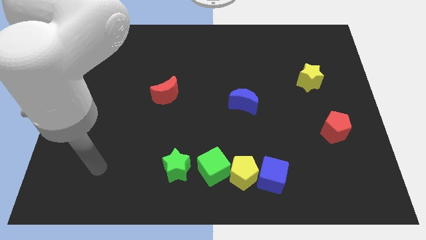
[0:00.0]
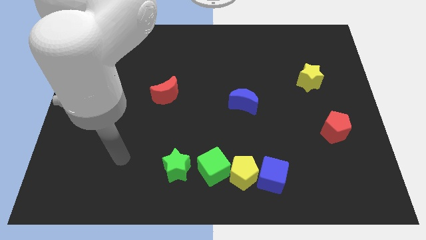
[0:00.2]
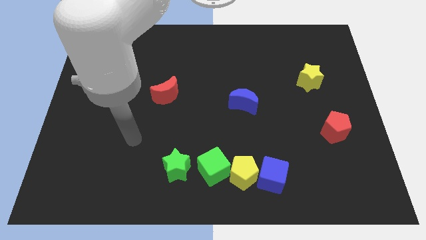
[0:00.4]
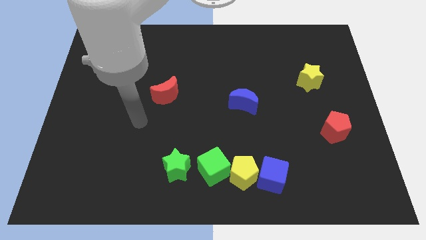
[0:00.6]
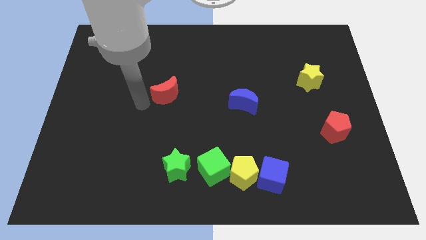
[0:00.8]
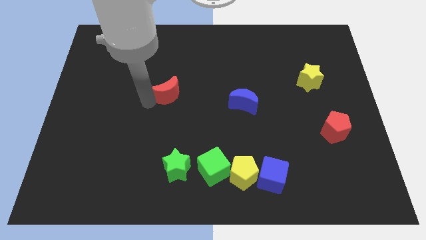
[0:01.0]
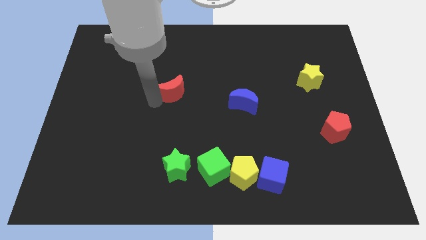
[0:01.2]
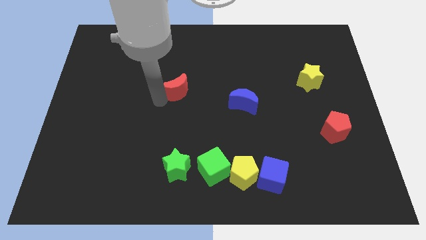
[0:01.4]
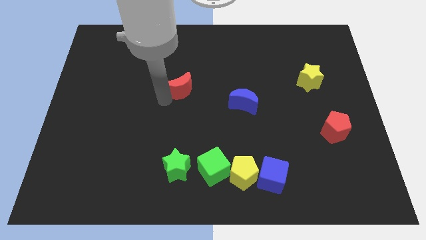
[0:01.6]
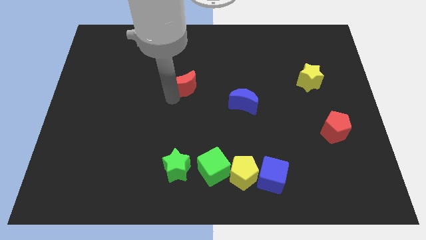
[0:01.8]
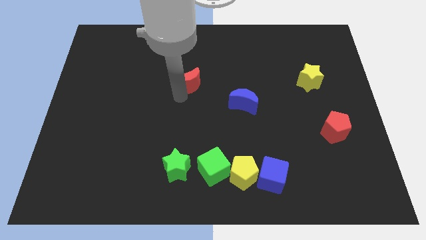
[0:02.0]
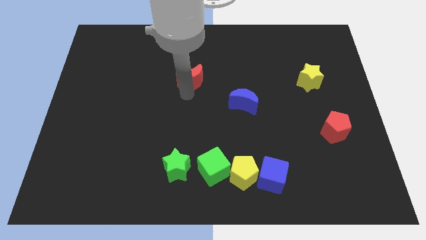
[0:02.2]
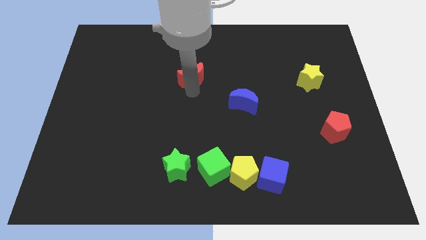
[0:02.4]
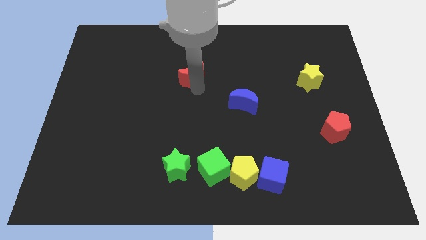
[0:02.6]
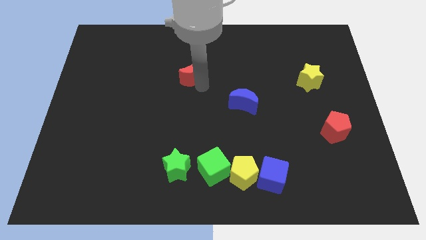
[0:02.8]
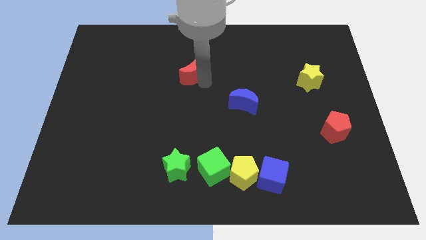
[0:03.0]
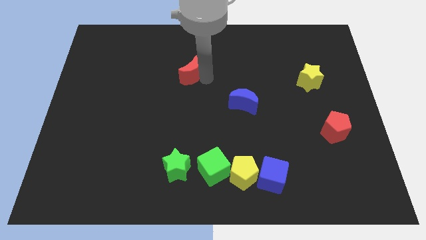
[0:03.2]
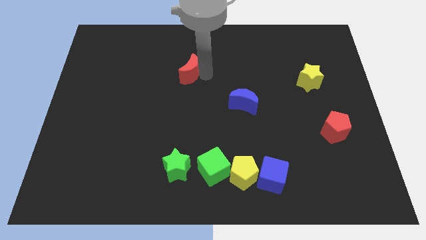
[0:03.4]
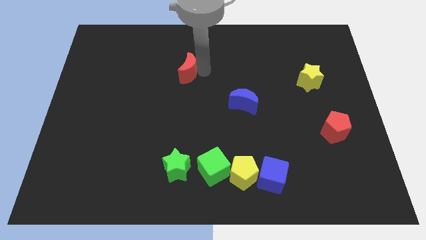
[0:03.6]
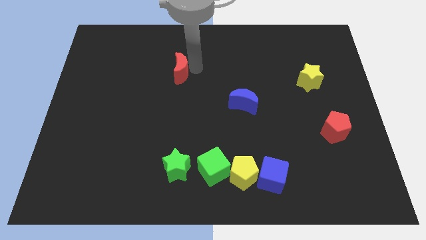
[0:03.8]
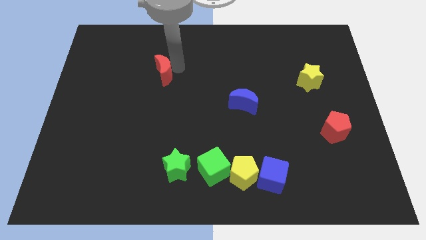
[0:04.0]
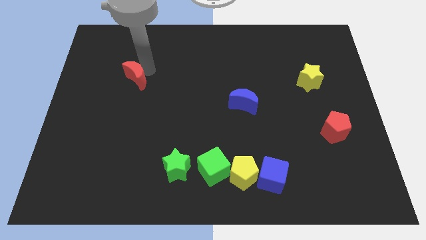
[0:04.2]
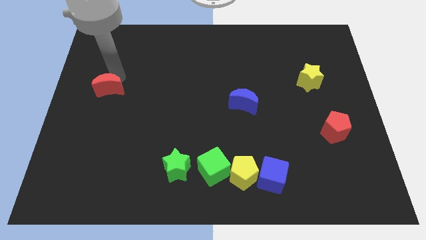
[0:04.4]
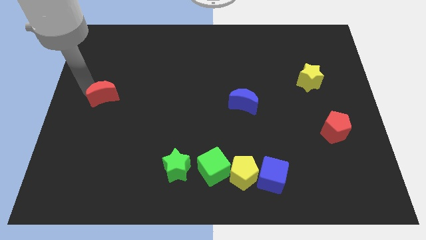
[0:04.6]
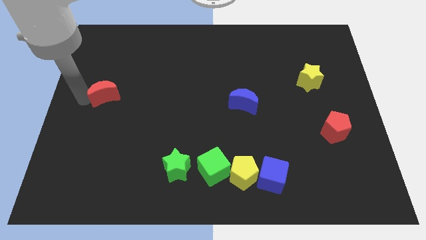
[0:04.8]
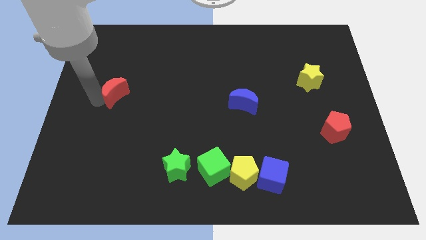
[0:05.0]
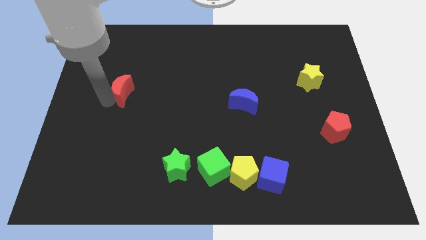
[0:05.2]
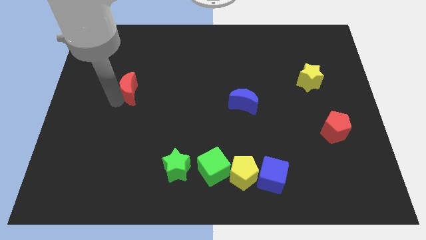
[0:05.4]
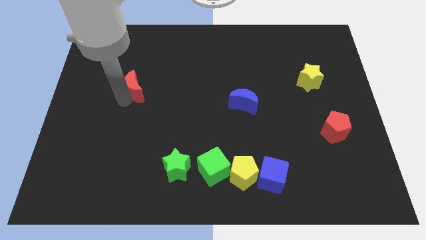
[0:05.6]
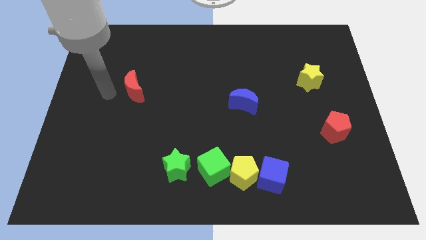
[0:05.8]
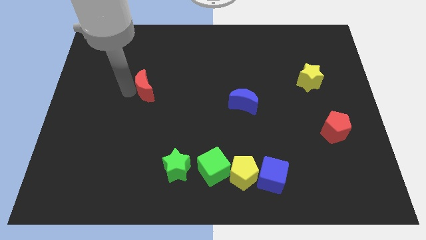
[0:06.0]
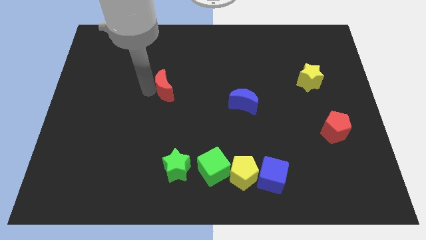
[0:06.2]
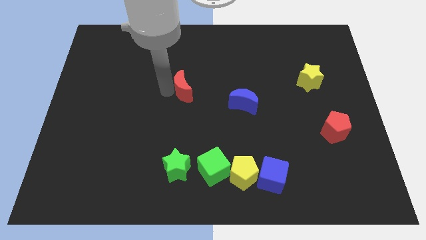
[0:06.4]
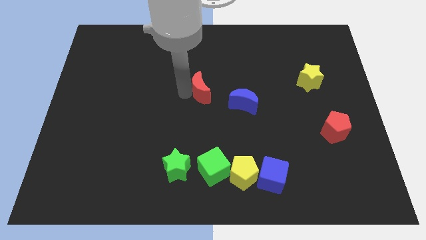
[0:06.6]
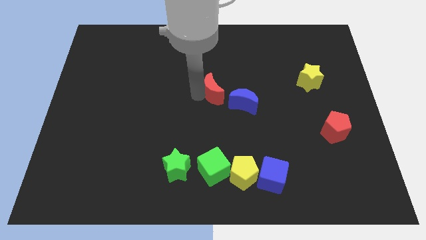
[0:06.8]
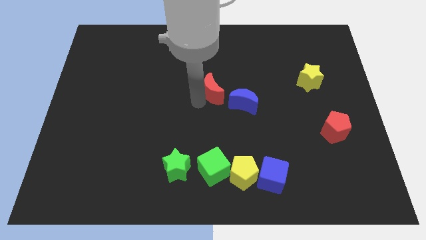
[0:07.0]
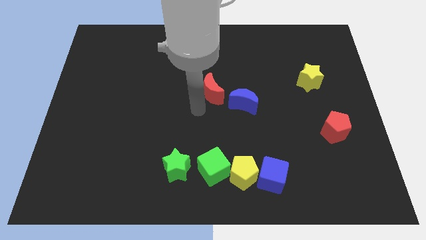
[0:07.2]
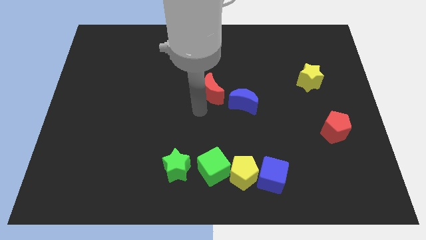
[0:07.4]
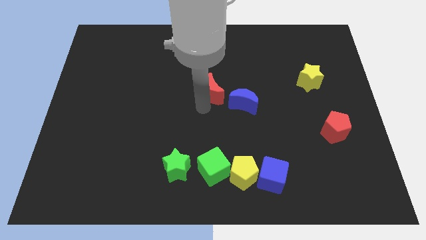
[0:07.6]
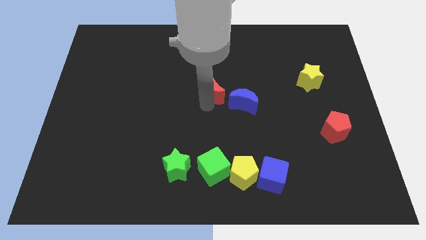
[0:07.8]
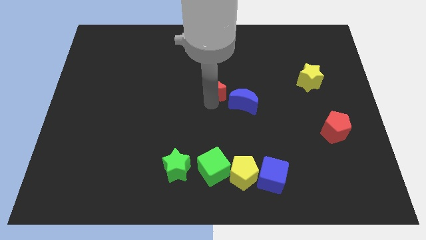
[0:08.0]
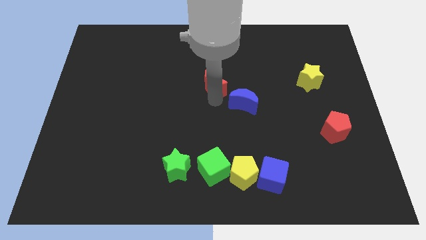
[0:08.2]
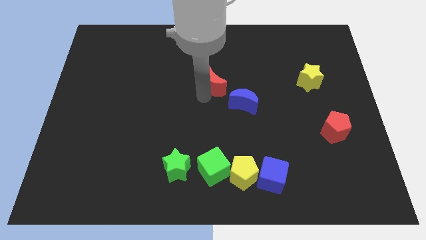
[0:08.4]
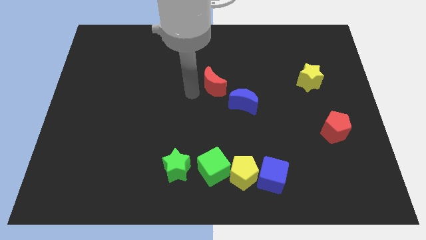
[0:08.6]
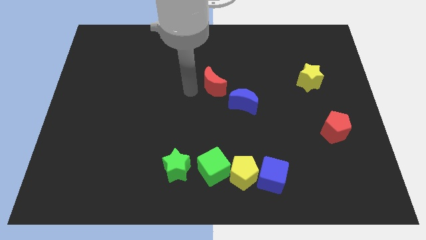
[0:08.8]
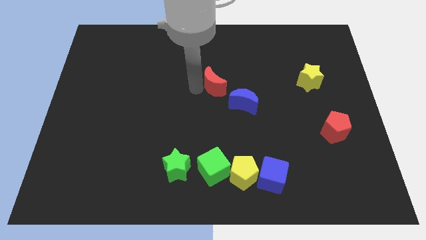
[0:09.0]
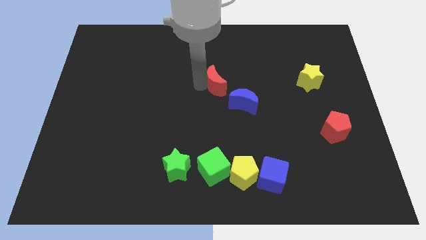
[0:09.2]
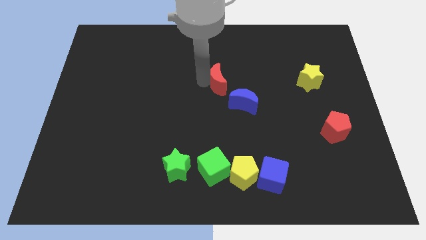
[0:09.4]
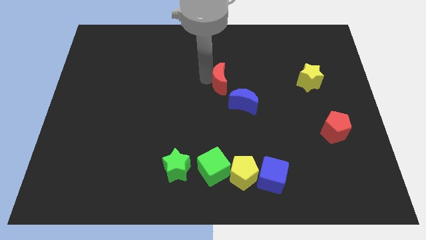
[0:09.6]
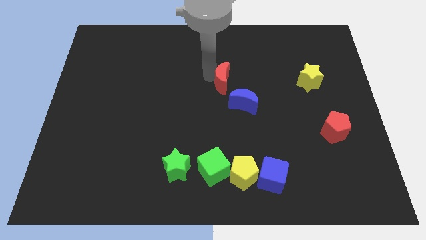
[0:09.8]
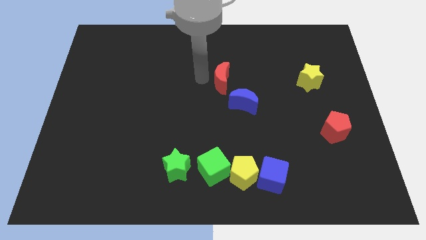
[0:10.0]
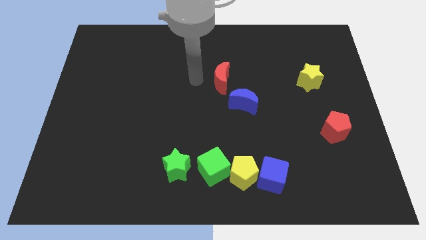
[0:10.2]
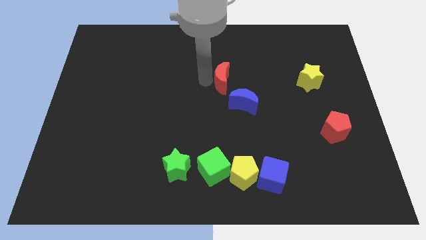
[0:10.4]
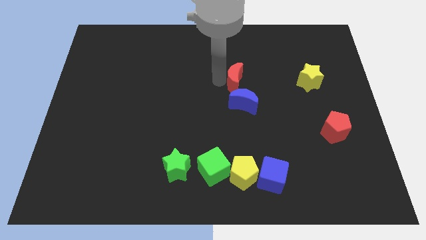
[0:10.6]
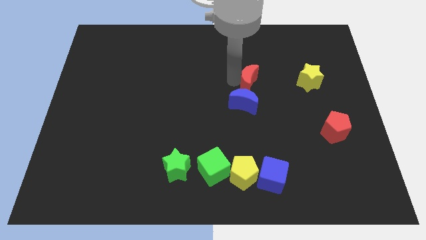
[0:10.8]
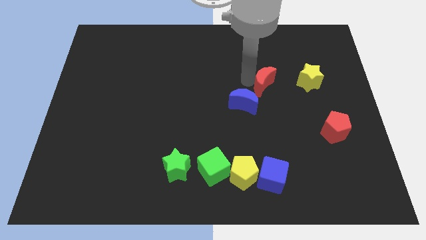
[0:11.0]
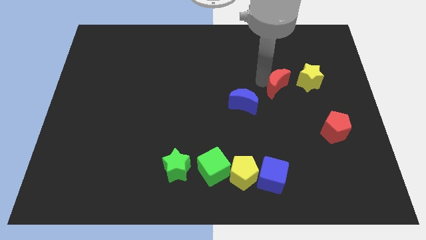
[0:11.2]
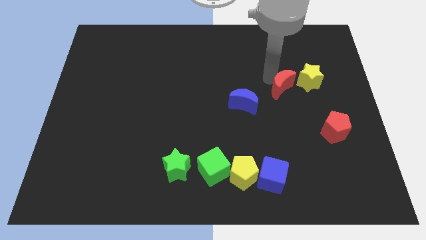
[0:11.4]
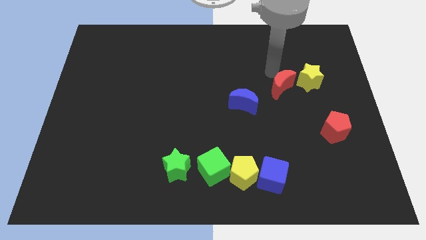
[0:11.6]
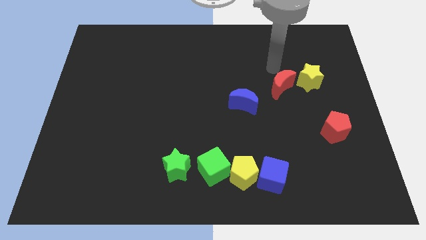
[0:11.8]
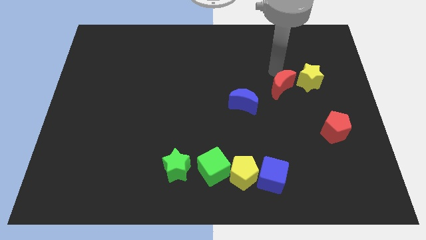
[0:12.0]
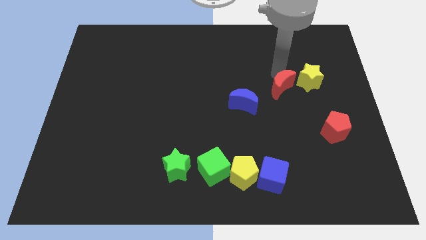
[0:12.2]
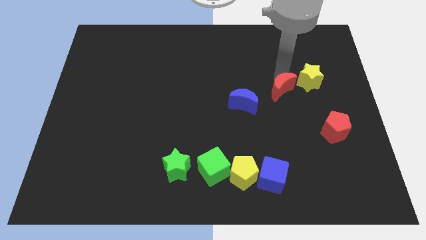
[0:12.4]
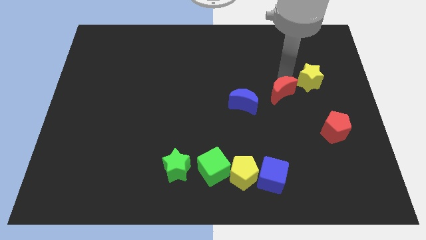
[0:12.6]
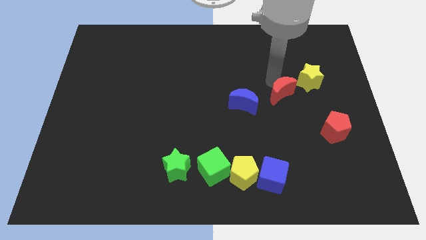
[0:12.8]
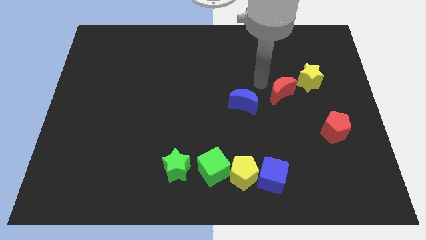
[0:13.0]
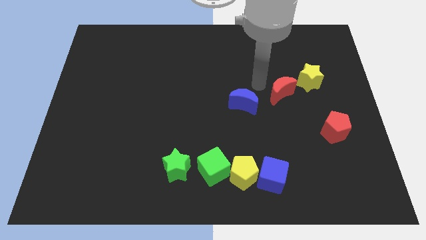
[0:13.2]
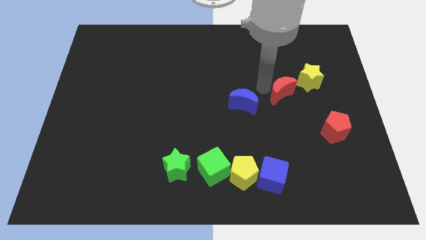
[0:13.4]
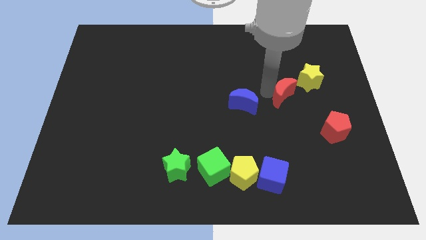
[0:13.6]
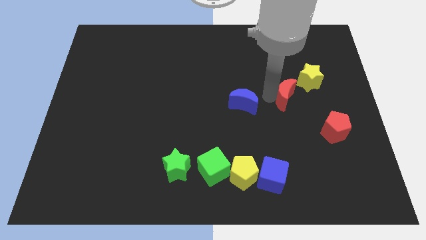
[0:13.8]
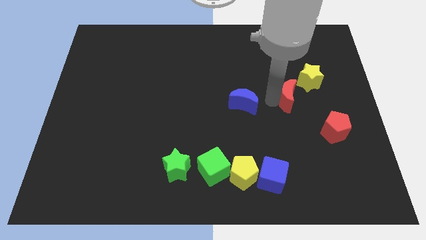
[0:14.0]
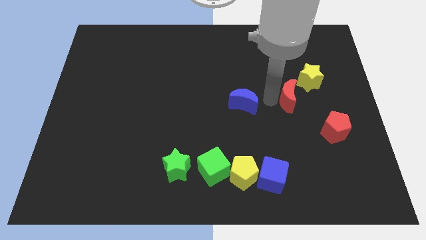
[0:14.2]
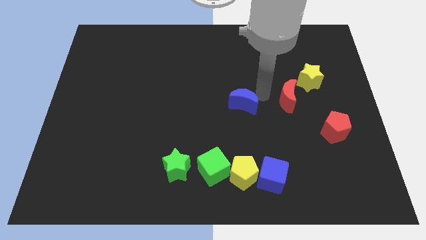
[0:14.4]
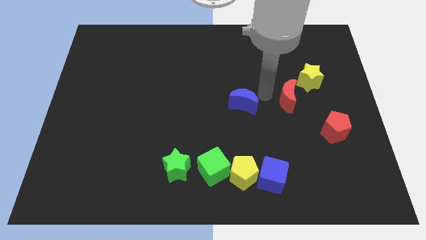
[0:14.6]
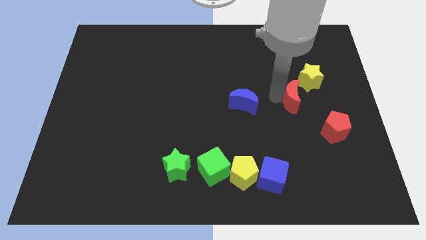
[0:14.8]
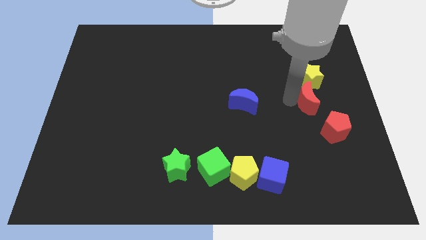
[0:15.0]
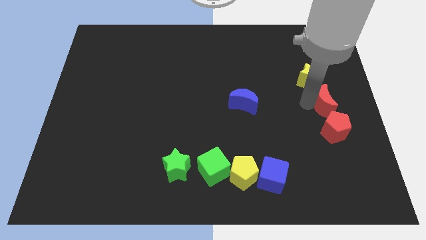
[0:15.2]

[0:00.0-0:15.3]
slide the red moon to the right side
